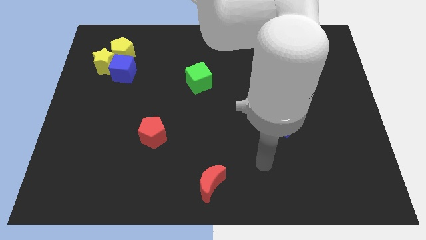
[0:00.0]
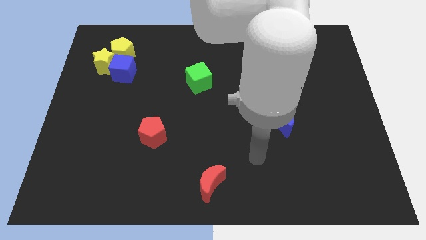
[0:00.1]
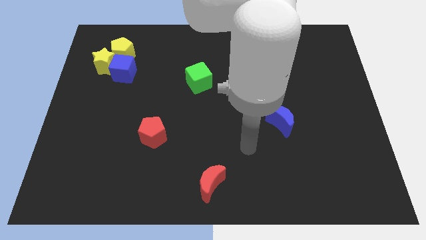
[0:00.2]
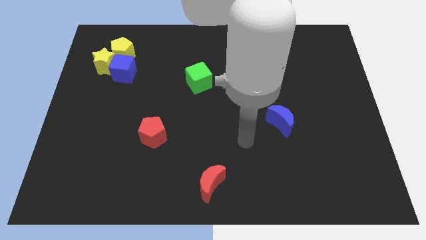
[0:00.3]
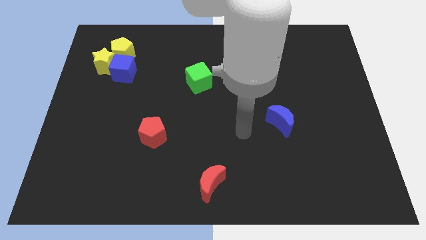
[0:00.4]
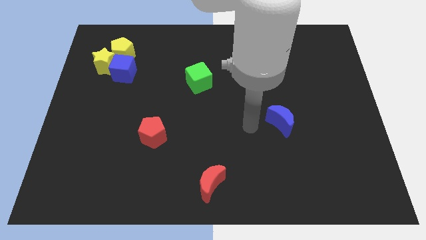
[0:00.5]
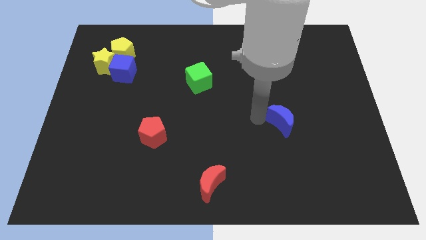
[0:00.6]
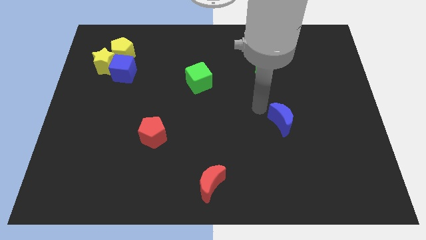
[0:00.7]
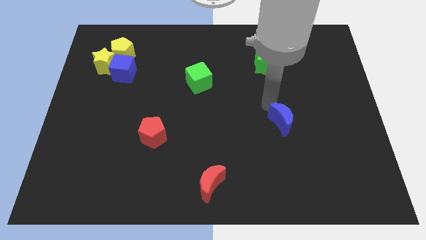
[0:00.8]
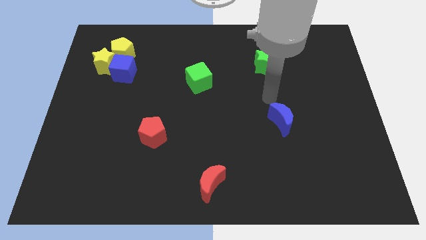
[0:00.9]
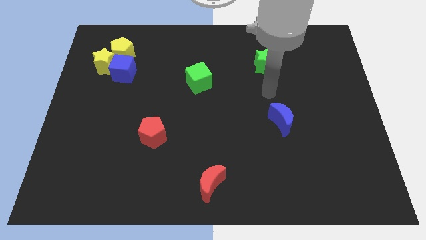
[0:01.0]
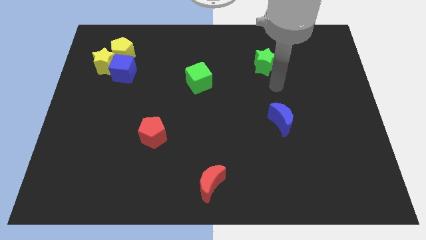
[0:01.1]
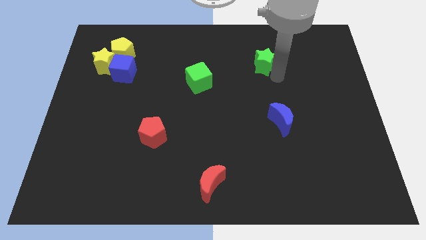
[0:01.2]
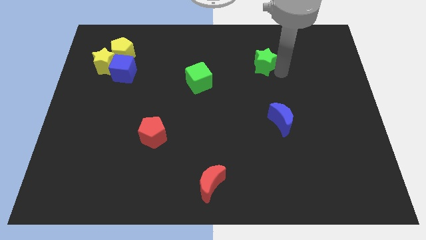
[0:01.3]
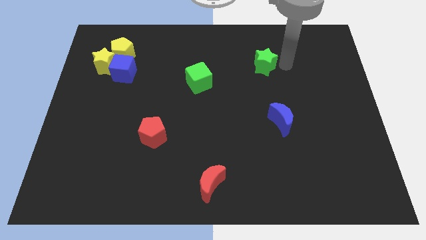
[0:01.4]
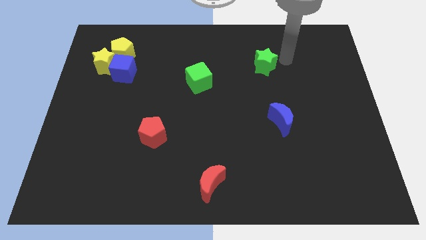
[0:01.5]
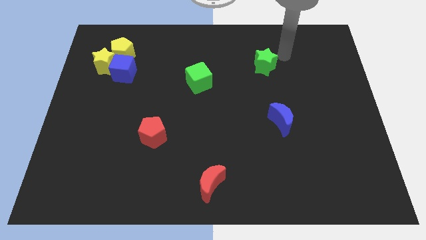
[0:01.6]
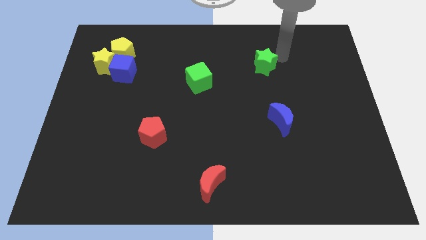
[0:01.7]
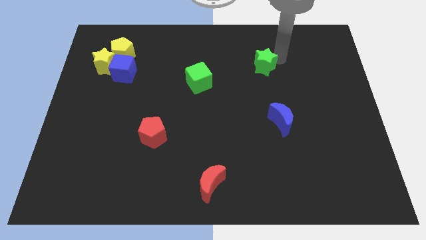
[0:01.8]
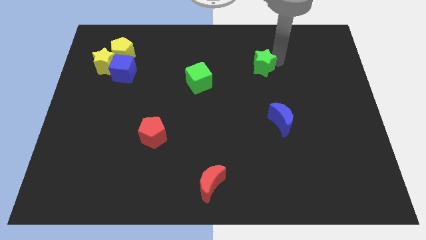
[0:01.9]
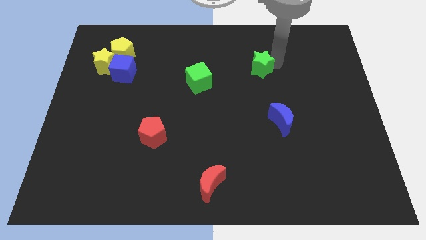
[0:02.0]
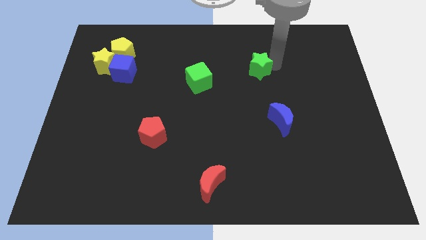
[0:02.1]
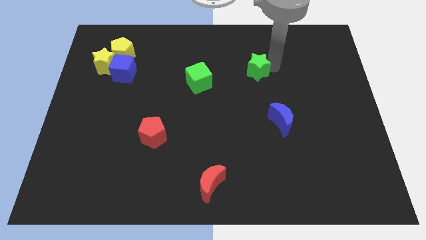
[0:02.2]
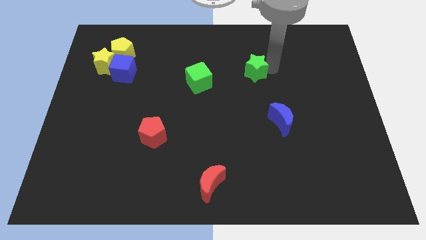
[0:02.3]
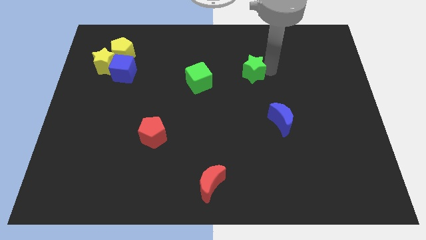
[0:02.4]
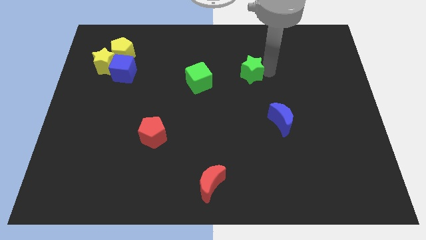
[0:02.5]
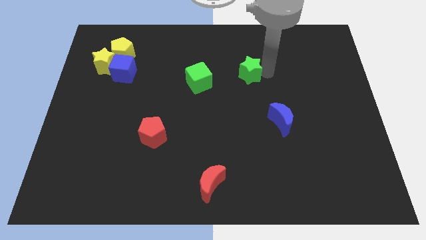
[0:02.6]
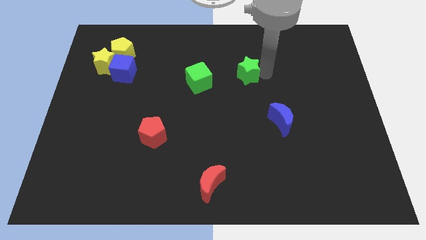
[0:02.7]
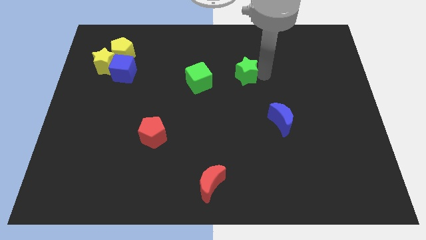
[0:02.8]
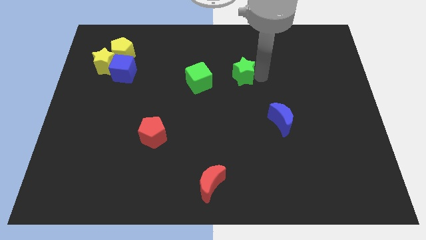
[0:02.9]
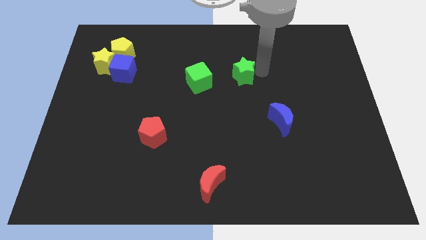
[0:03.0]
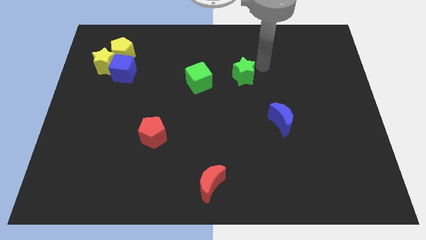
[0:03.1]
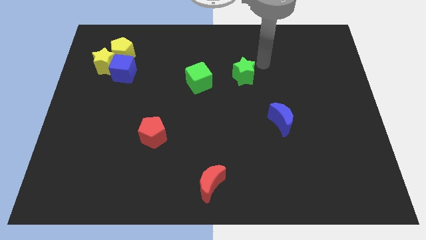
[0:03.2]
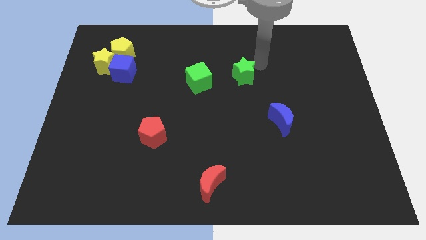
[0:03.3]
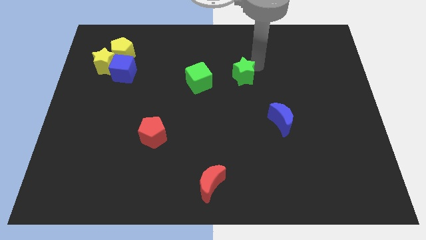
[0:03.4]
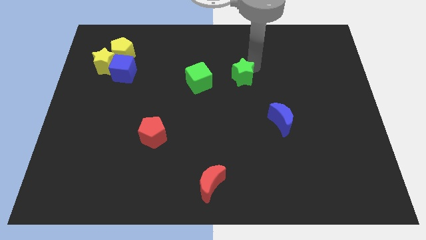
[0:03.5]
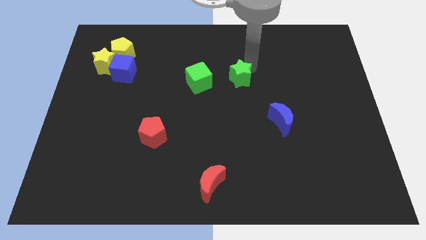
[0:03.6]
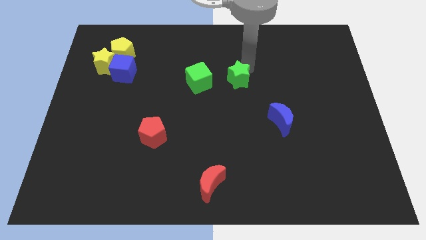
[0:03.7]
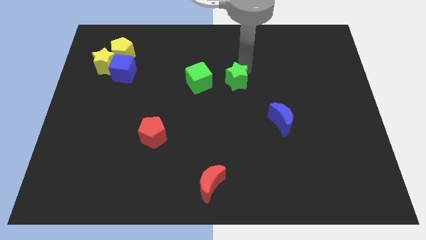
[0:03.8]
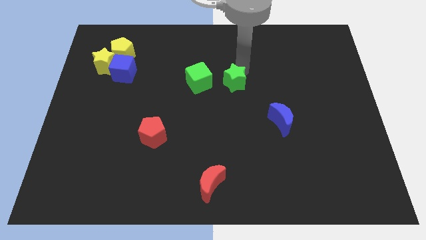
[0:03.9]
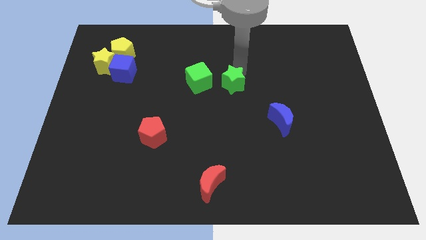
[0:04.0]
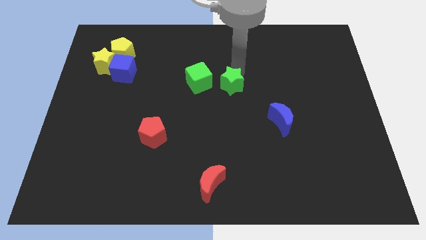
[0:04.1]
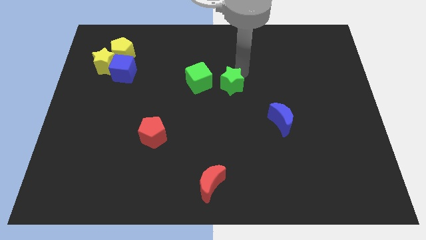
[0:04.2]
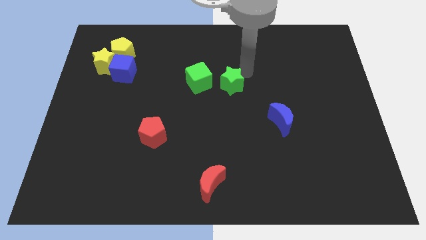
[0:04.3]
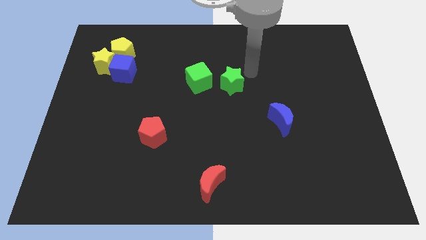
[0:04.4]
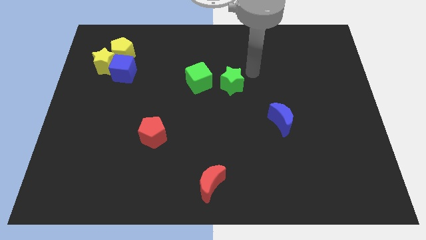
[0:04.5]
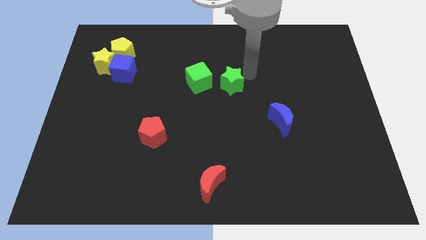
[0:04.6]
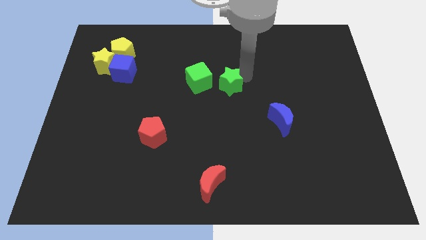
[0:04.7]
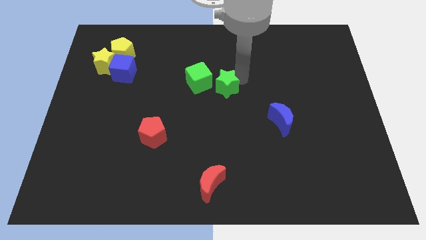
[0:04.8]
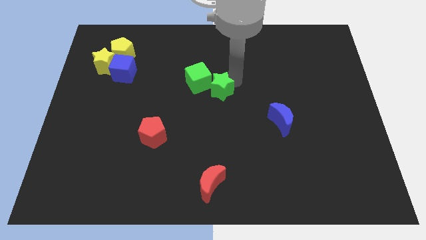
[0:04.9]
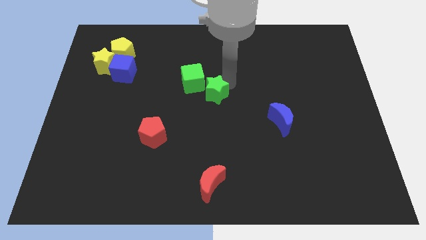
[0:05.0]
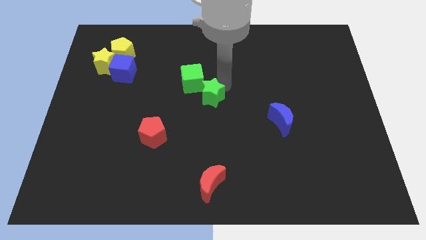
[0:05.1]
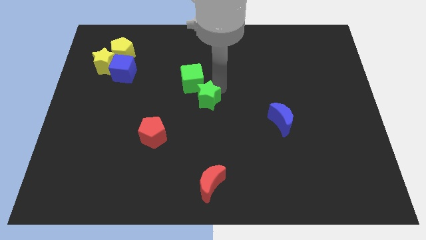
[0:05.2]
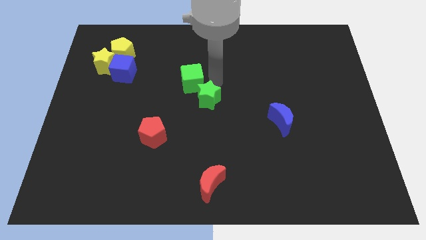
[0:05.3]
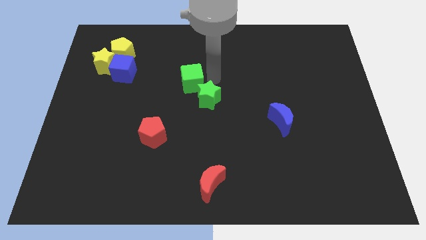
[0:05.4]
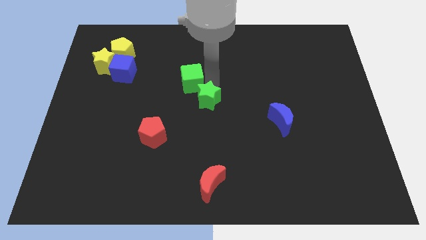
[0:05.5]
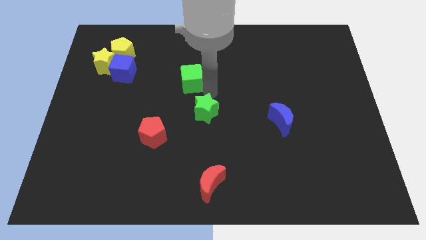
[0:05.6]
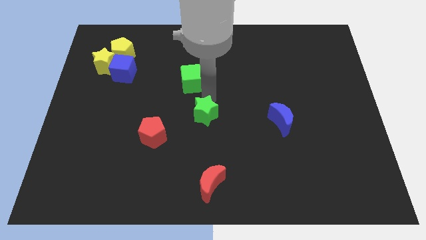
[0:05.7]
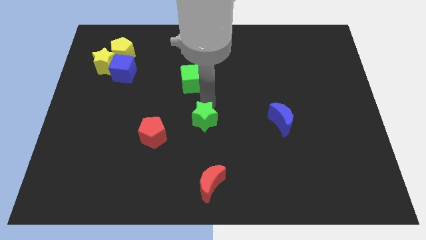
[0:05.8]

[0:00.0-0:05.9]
move the green star right of the red pentagon
